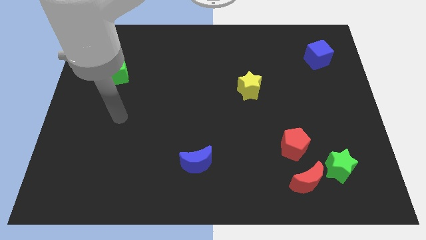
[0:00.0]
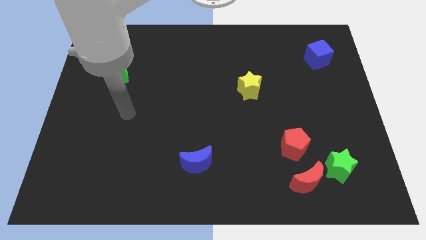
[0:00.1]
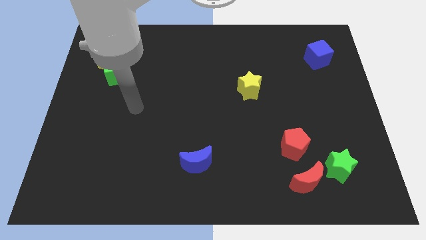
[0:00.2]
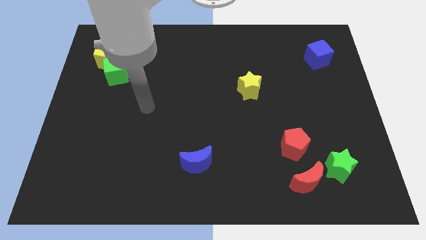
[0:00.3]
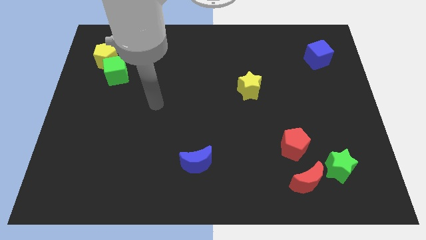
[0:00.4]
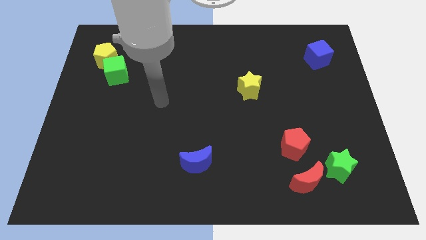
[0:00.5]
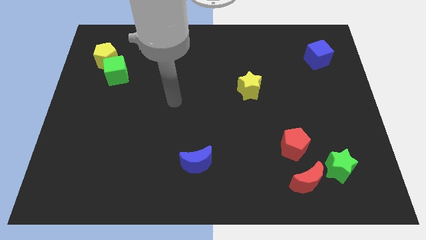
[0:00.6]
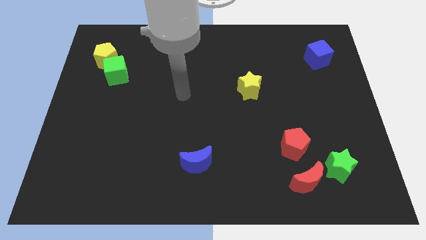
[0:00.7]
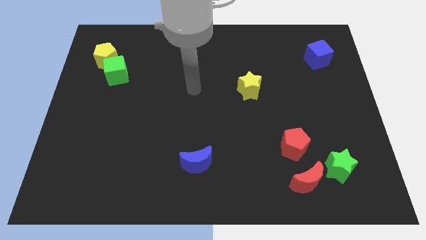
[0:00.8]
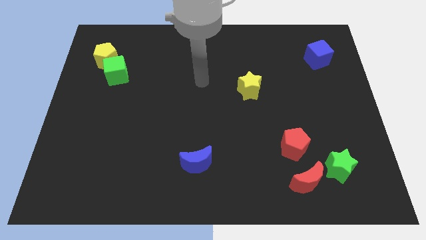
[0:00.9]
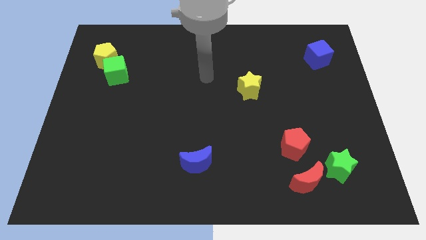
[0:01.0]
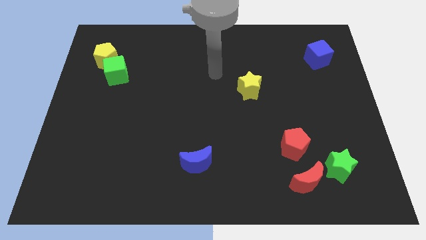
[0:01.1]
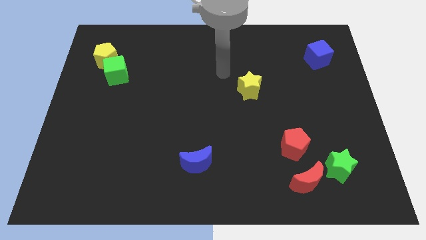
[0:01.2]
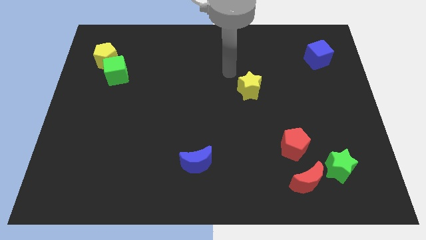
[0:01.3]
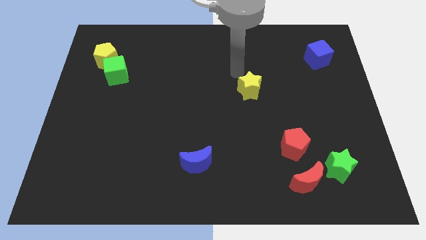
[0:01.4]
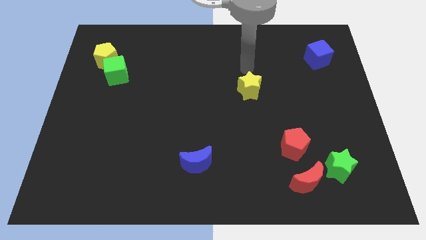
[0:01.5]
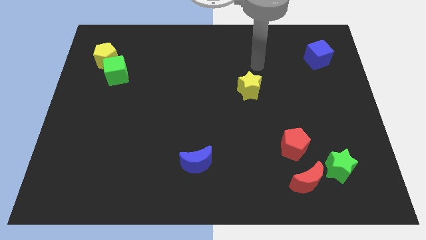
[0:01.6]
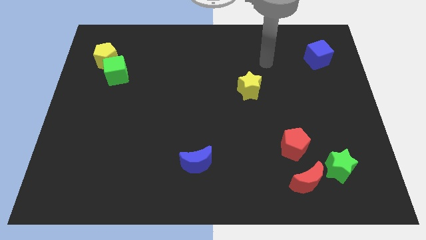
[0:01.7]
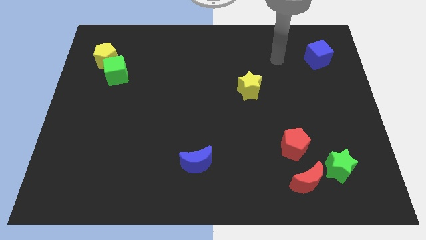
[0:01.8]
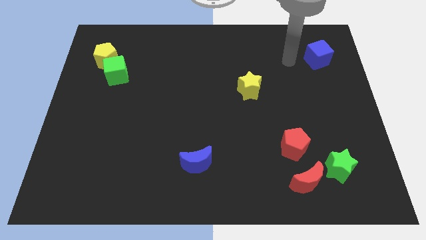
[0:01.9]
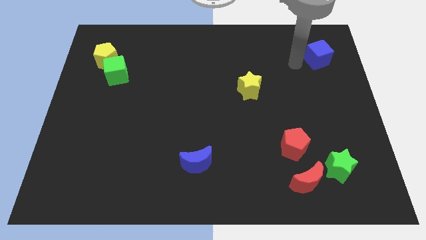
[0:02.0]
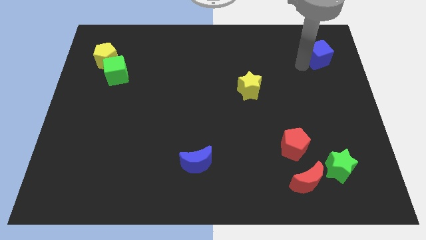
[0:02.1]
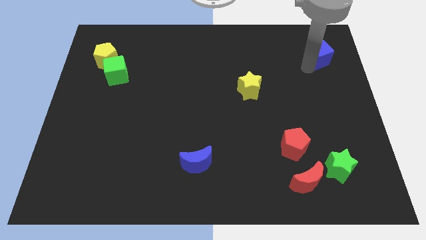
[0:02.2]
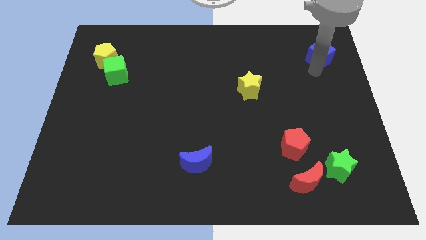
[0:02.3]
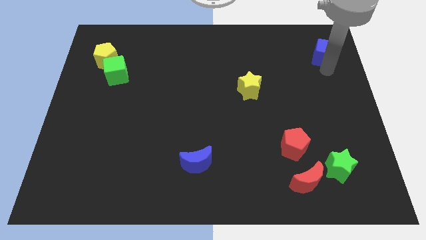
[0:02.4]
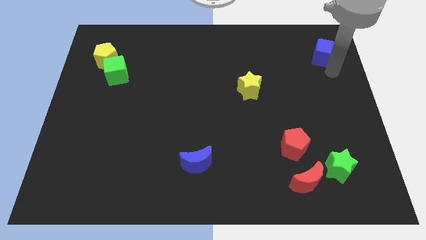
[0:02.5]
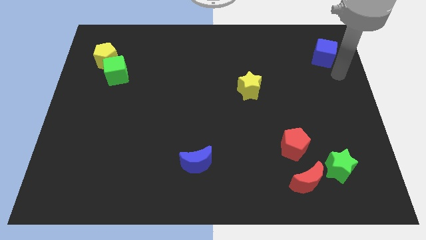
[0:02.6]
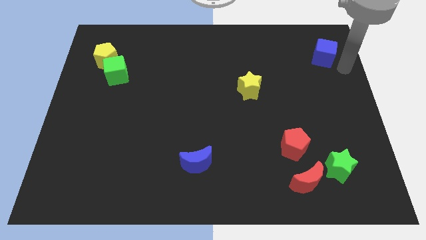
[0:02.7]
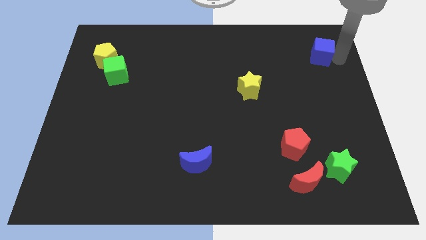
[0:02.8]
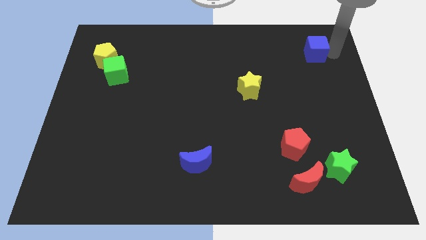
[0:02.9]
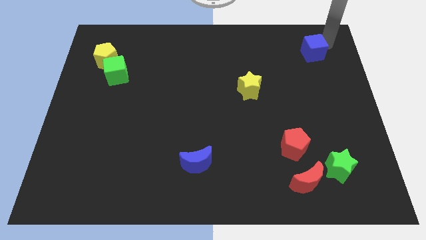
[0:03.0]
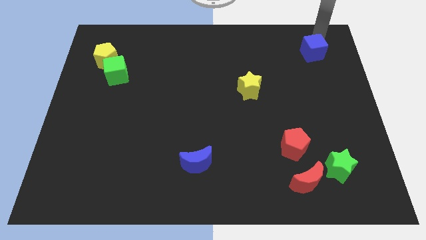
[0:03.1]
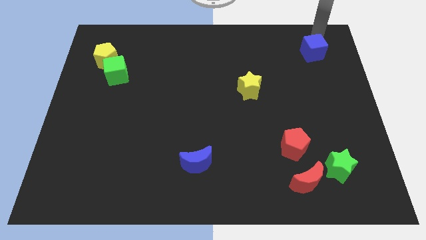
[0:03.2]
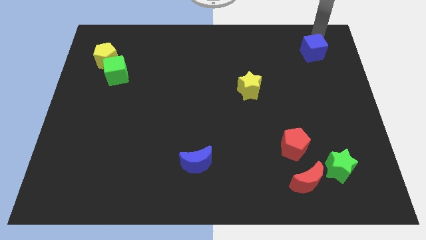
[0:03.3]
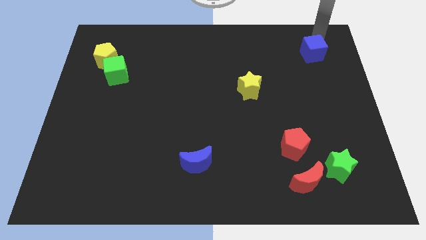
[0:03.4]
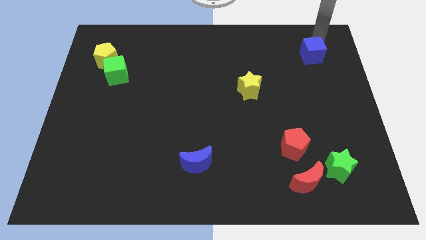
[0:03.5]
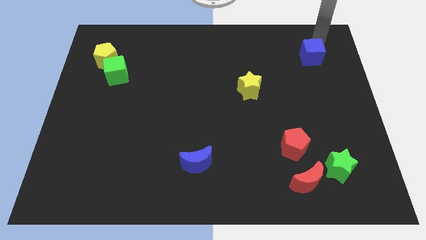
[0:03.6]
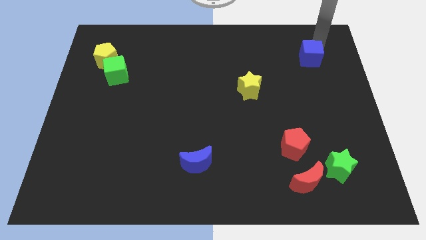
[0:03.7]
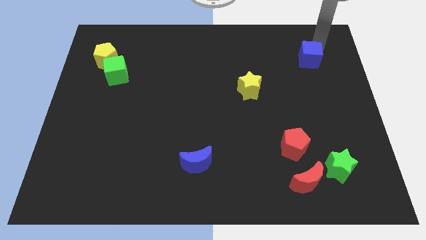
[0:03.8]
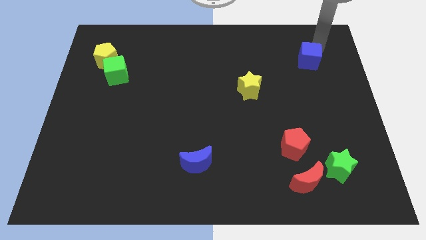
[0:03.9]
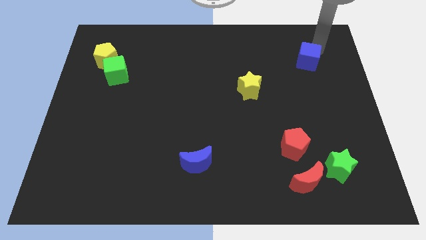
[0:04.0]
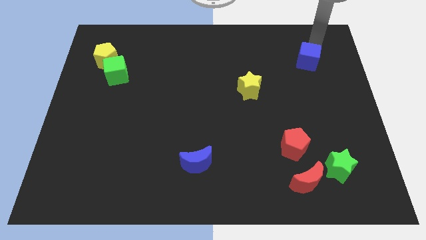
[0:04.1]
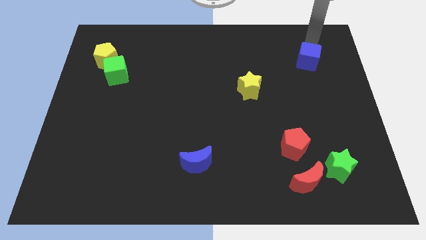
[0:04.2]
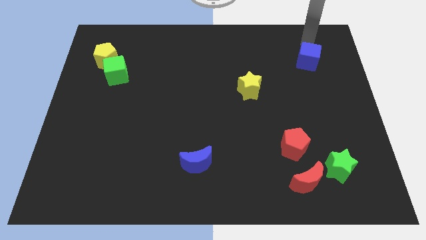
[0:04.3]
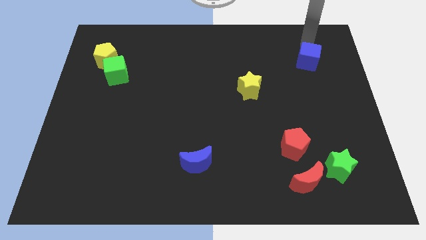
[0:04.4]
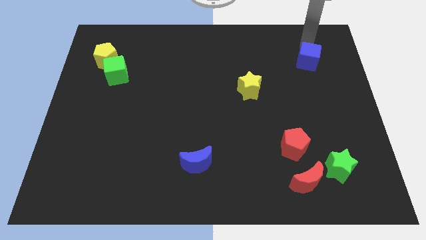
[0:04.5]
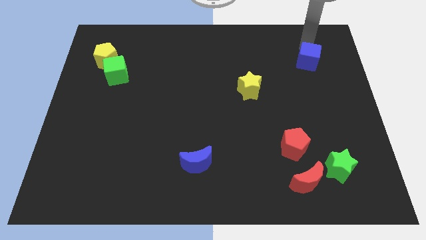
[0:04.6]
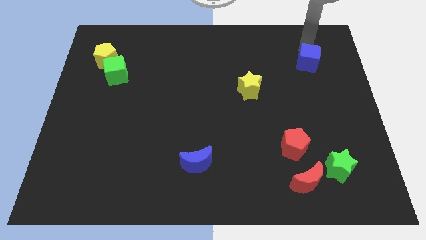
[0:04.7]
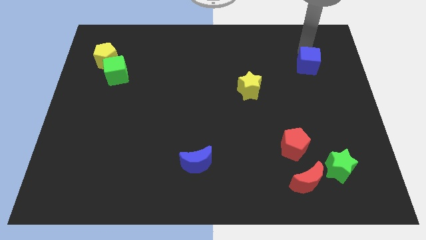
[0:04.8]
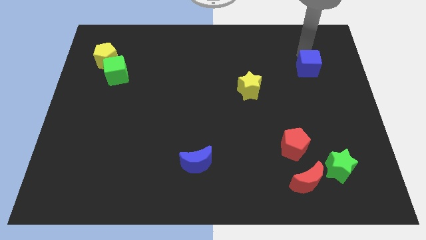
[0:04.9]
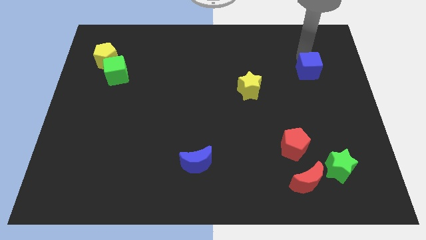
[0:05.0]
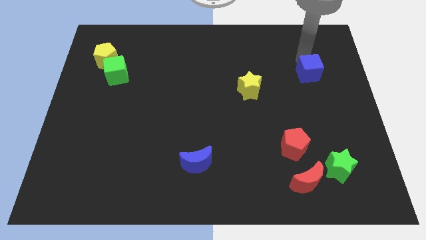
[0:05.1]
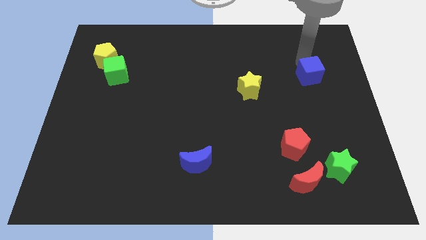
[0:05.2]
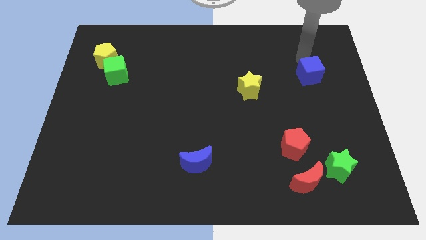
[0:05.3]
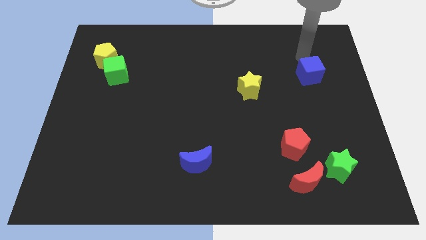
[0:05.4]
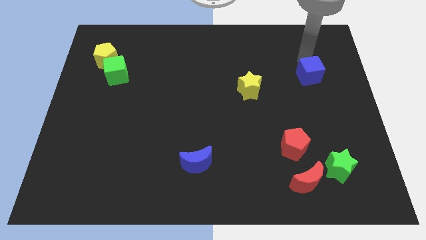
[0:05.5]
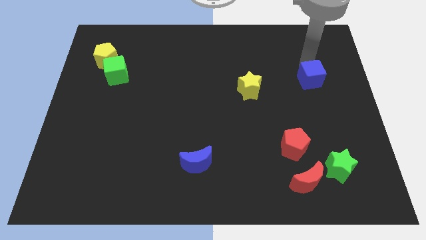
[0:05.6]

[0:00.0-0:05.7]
slide the blue cube a little bit down

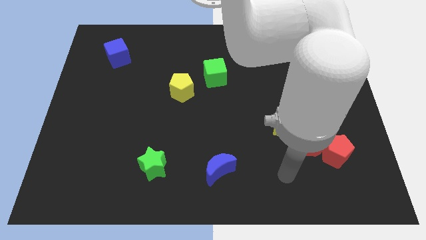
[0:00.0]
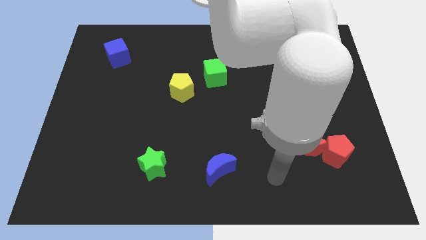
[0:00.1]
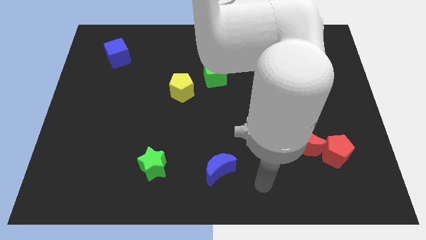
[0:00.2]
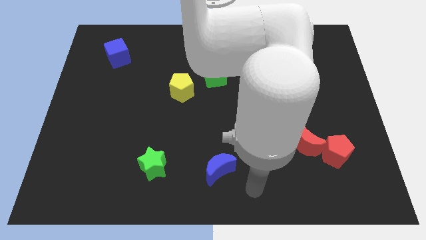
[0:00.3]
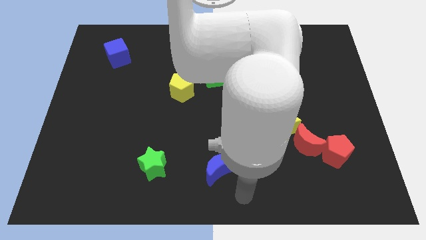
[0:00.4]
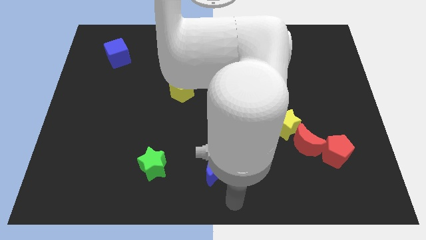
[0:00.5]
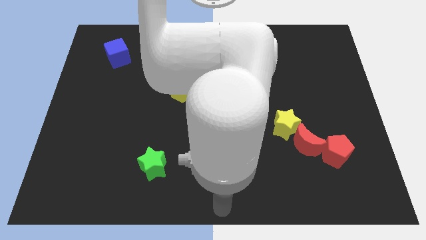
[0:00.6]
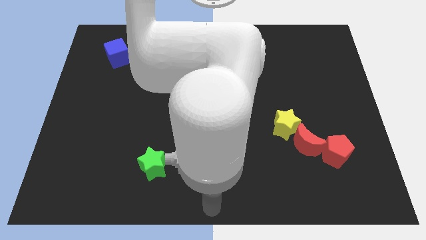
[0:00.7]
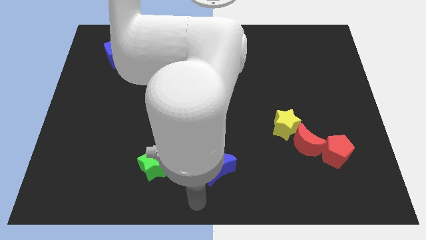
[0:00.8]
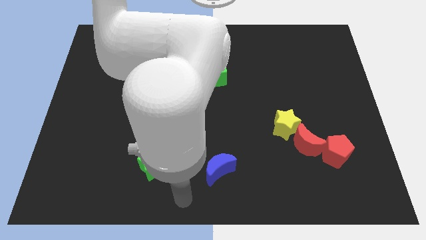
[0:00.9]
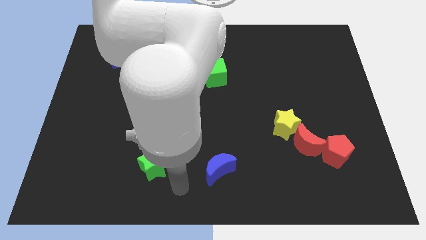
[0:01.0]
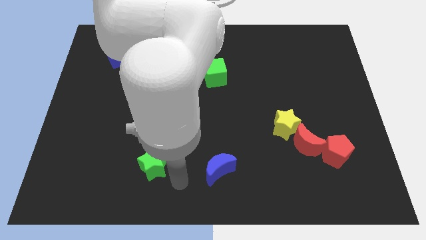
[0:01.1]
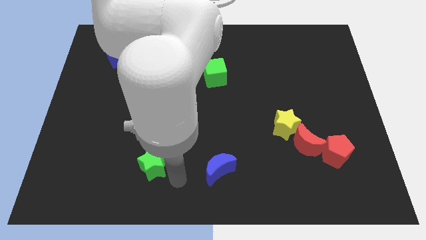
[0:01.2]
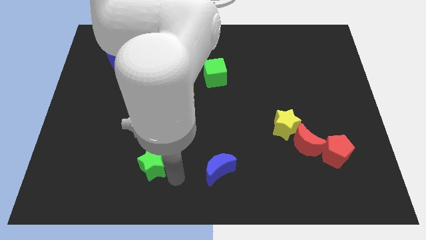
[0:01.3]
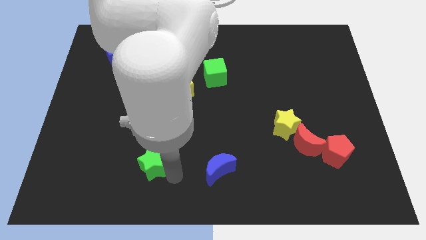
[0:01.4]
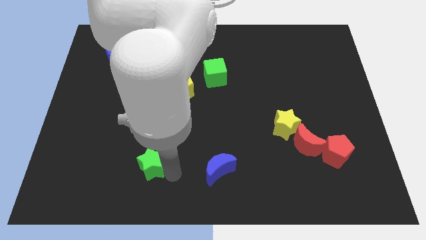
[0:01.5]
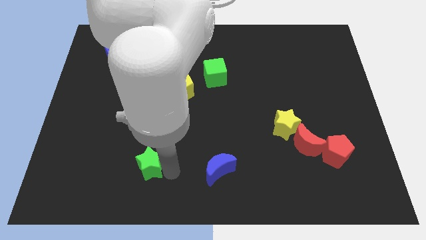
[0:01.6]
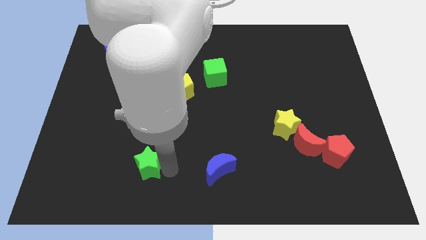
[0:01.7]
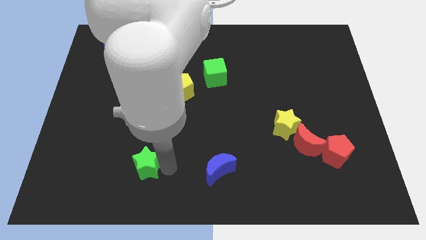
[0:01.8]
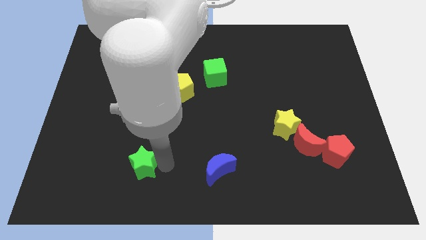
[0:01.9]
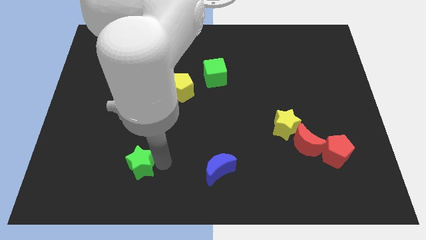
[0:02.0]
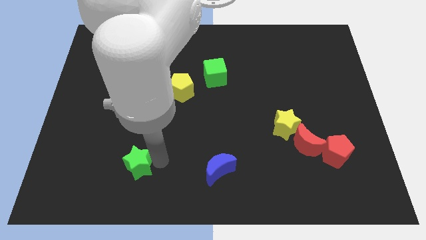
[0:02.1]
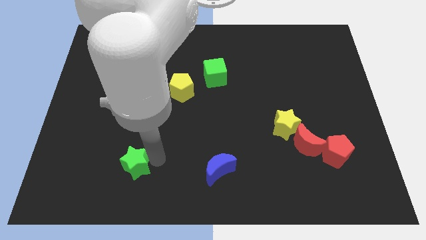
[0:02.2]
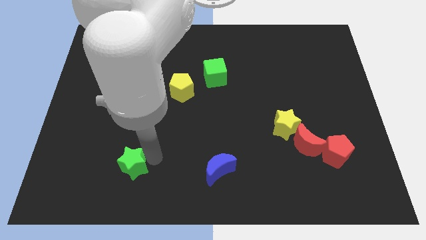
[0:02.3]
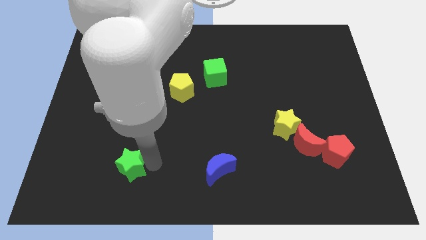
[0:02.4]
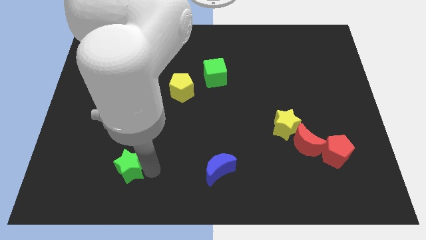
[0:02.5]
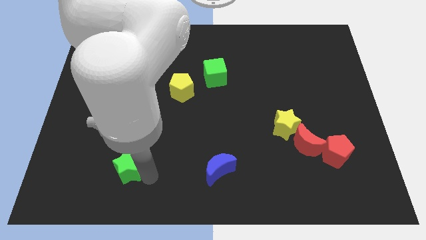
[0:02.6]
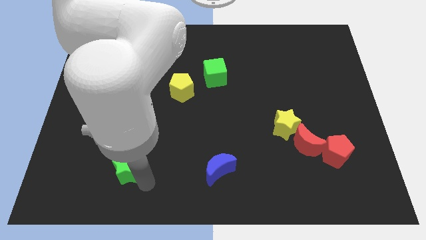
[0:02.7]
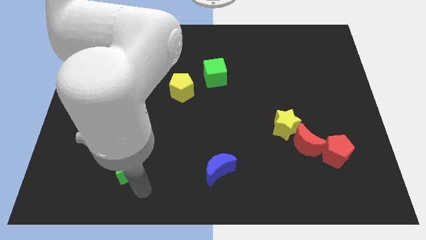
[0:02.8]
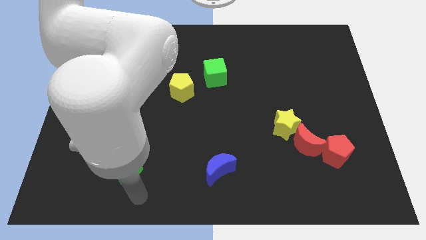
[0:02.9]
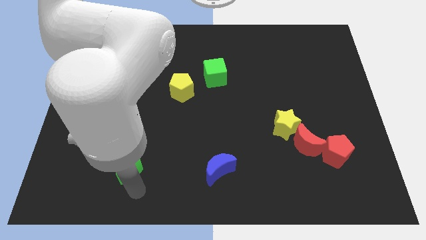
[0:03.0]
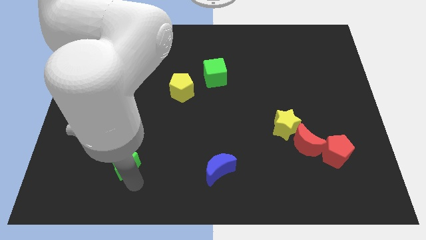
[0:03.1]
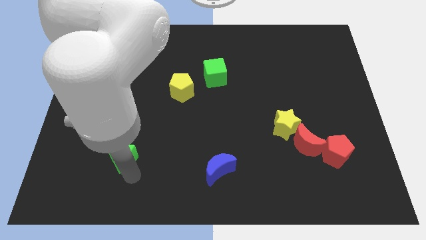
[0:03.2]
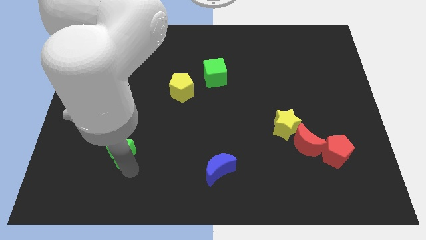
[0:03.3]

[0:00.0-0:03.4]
slightly push the green star up and left diagonally
